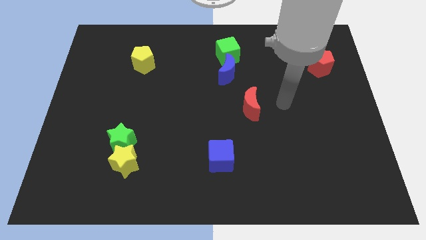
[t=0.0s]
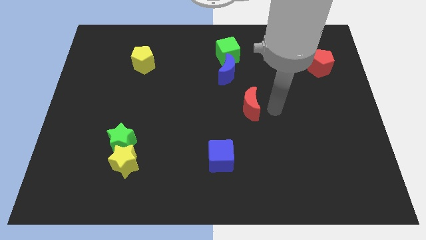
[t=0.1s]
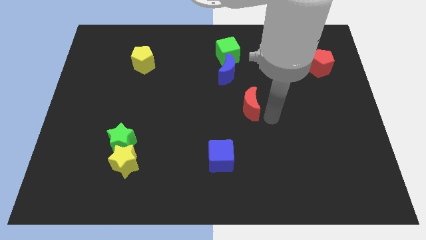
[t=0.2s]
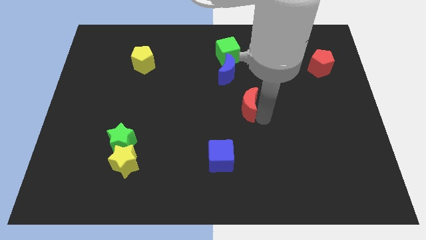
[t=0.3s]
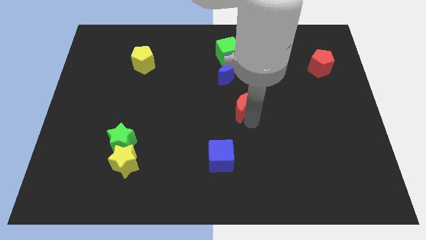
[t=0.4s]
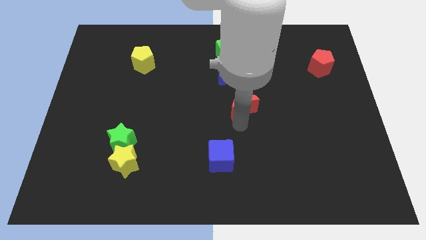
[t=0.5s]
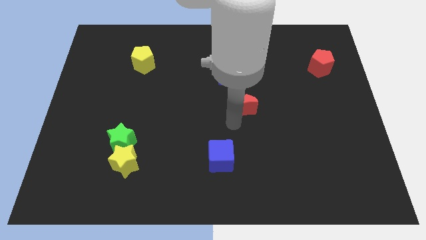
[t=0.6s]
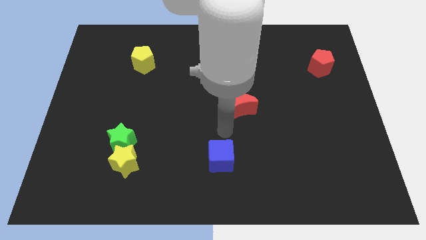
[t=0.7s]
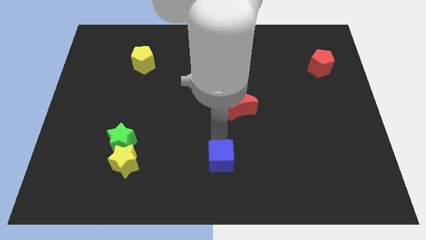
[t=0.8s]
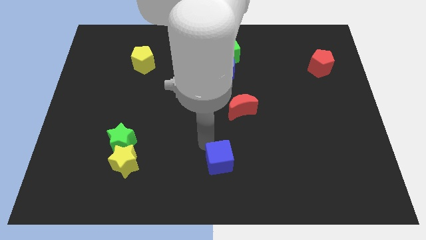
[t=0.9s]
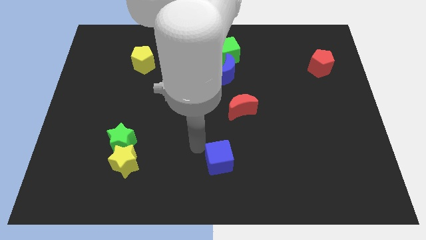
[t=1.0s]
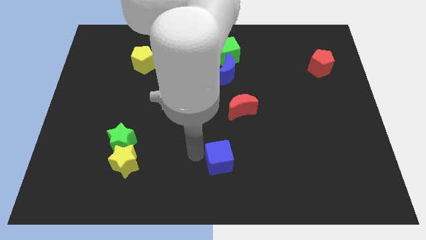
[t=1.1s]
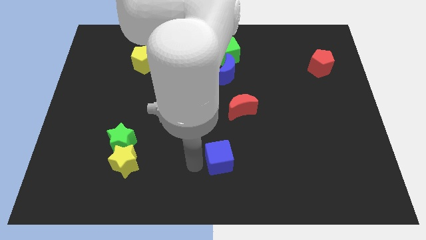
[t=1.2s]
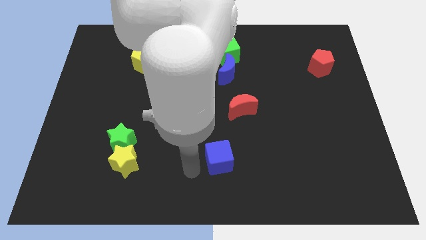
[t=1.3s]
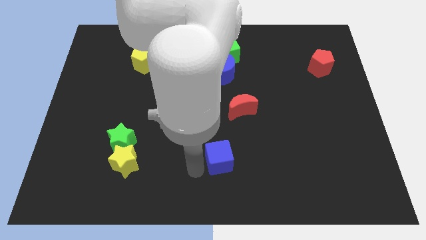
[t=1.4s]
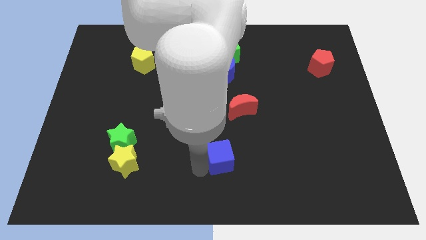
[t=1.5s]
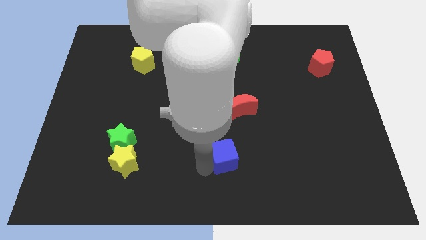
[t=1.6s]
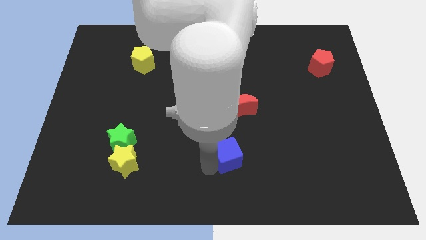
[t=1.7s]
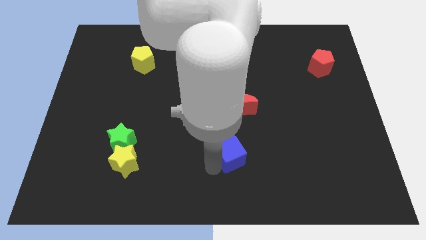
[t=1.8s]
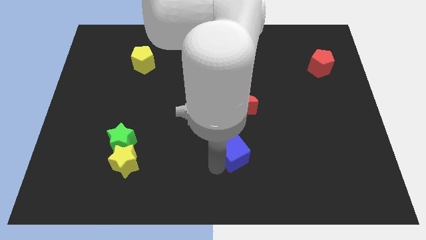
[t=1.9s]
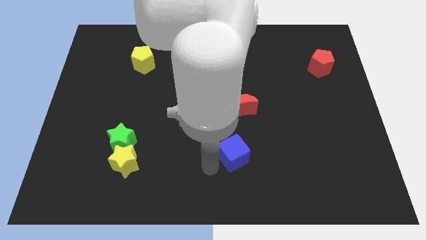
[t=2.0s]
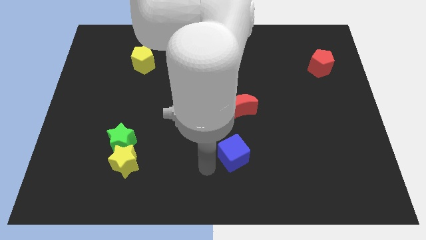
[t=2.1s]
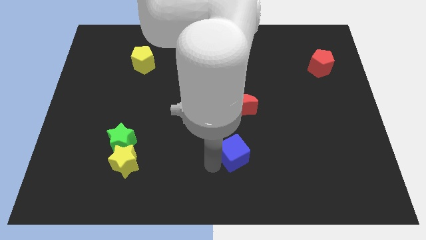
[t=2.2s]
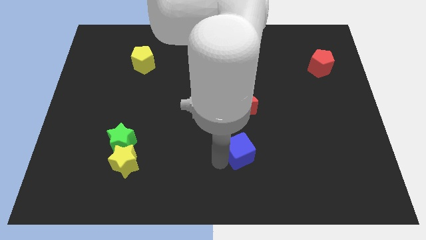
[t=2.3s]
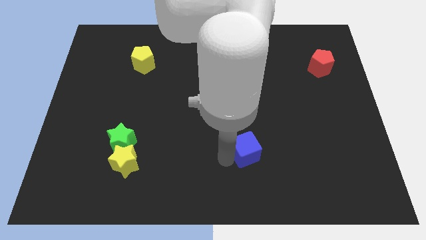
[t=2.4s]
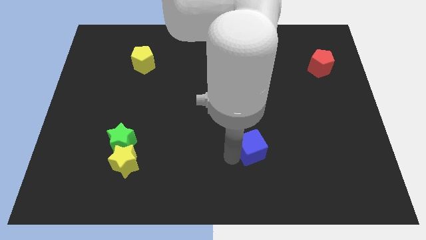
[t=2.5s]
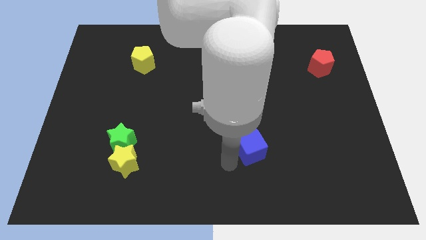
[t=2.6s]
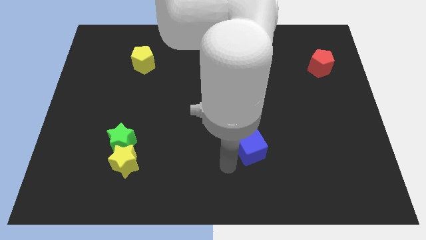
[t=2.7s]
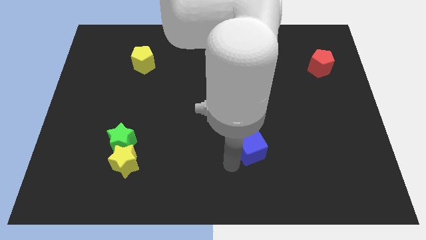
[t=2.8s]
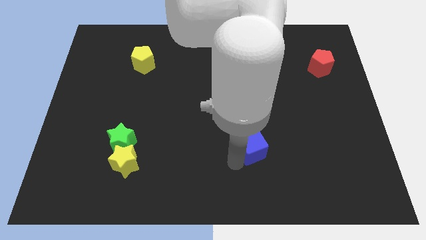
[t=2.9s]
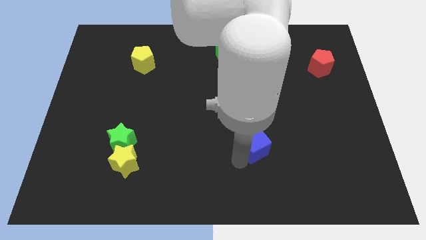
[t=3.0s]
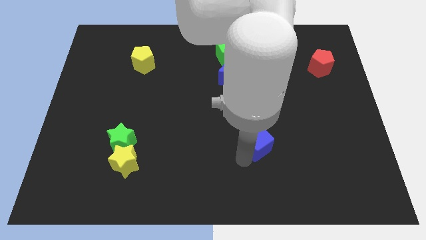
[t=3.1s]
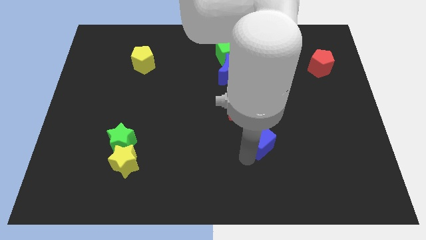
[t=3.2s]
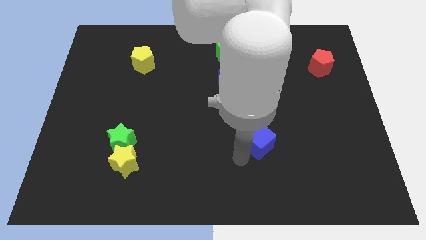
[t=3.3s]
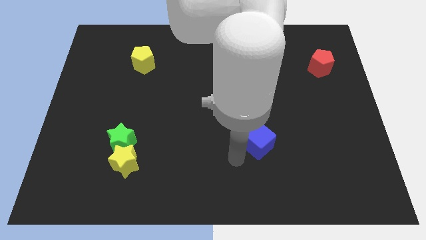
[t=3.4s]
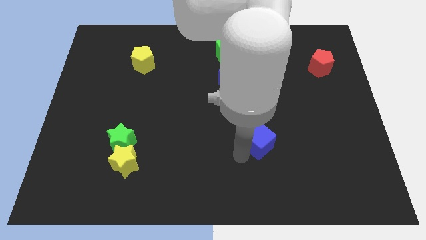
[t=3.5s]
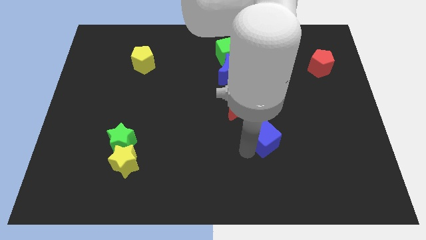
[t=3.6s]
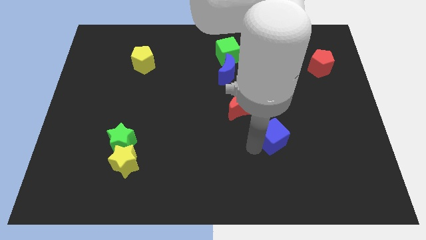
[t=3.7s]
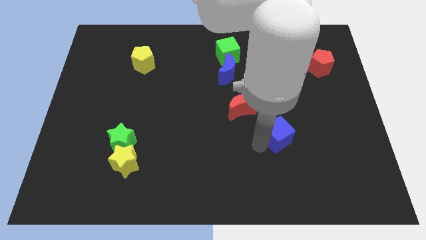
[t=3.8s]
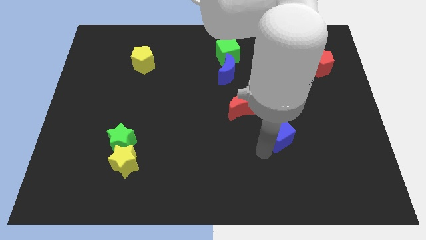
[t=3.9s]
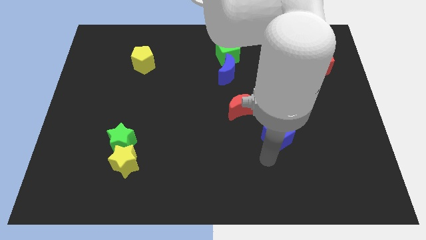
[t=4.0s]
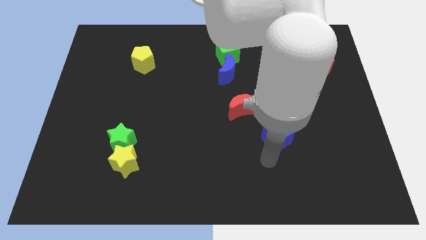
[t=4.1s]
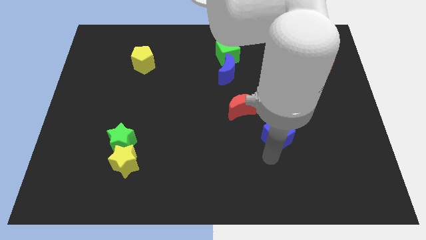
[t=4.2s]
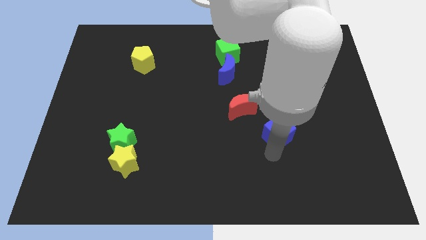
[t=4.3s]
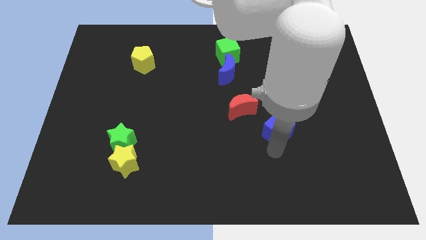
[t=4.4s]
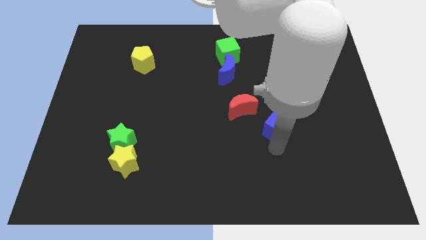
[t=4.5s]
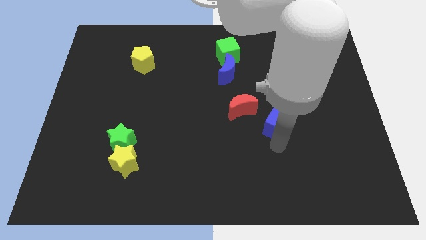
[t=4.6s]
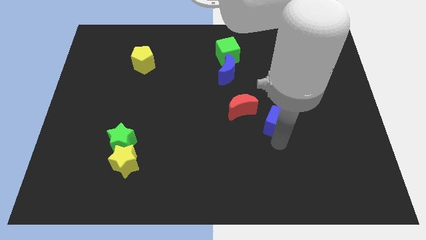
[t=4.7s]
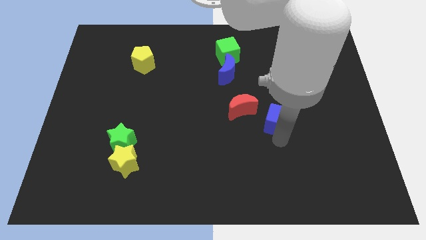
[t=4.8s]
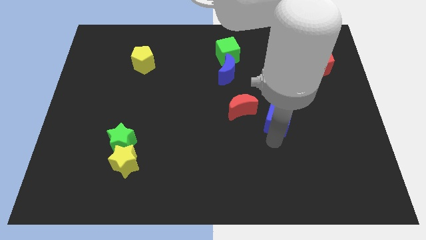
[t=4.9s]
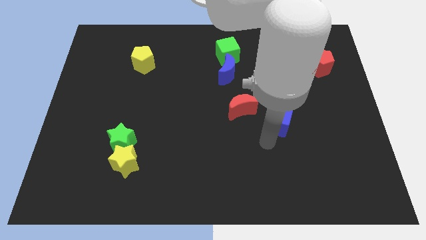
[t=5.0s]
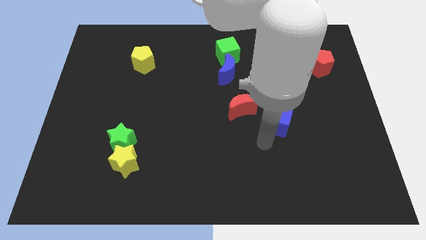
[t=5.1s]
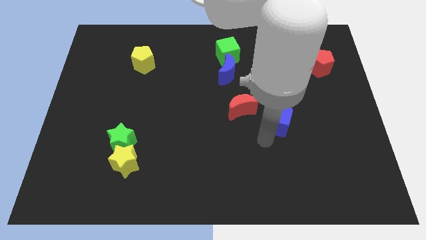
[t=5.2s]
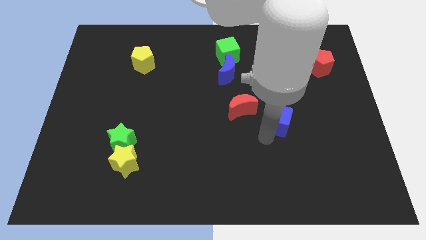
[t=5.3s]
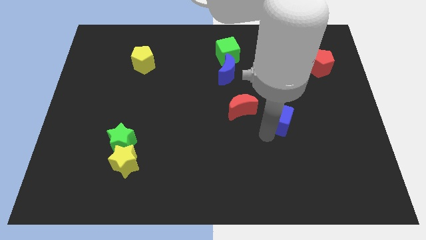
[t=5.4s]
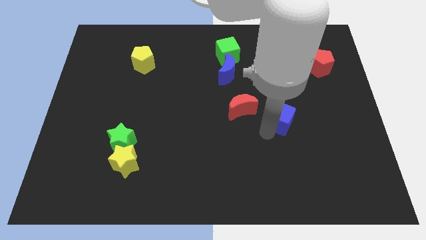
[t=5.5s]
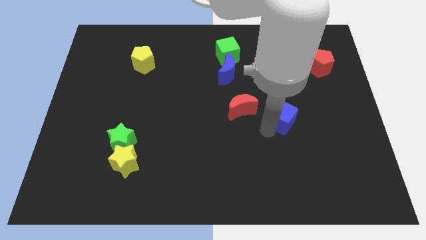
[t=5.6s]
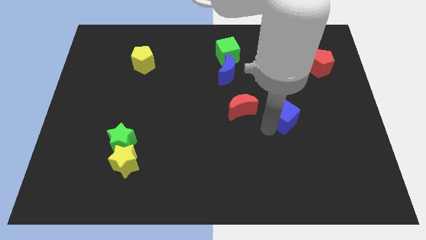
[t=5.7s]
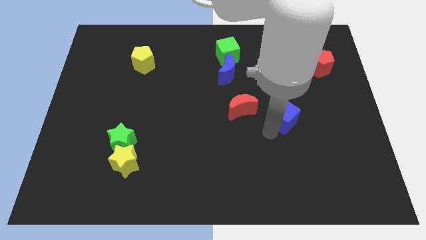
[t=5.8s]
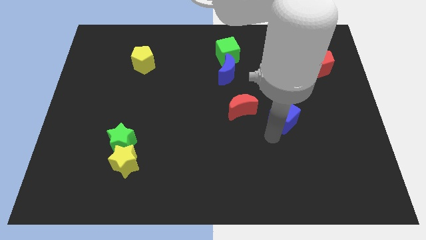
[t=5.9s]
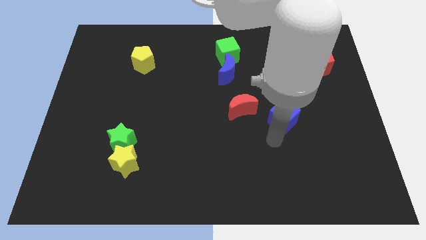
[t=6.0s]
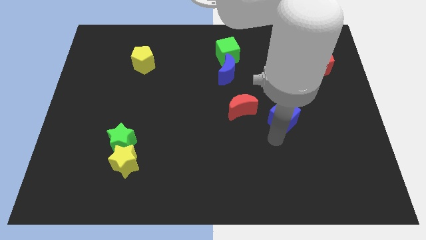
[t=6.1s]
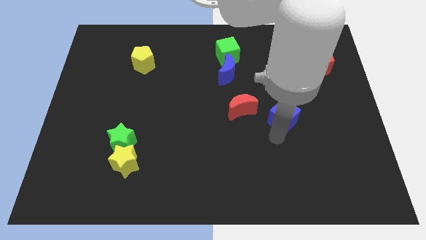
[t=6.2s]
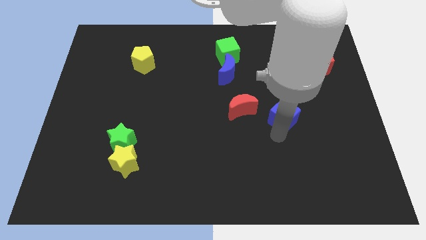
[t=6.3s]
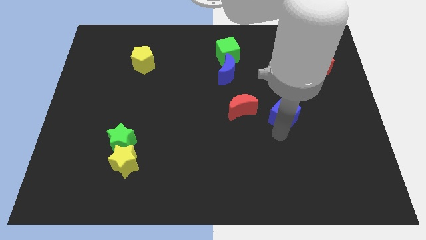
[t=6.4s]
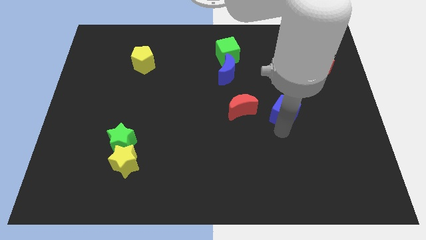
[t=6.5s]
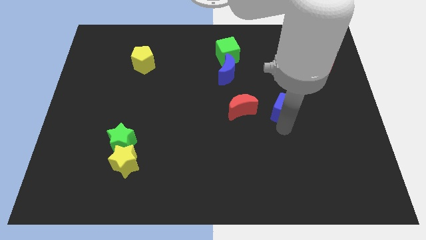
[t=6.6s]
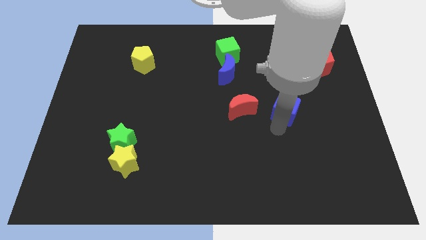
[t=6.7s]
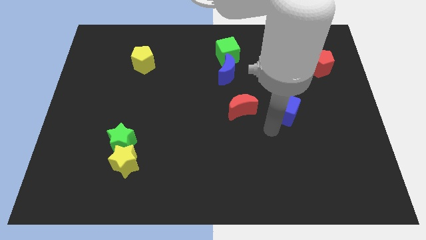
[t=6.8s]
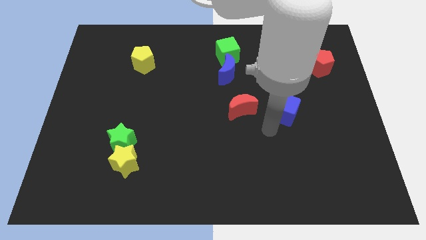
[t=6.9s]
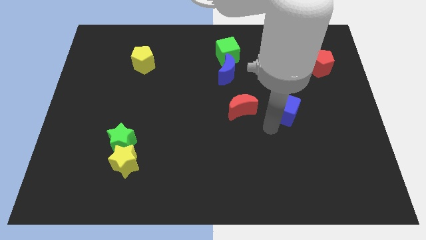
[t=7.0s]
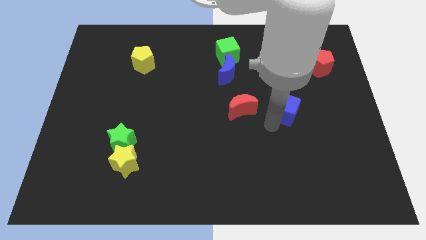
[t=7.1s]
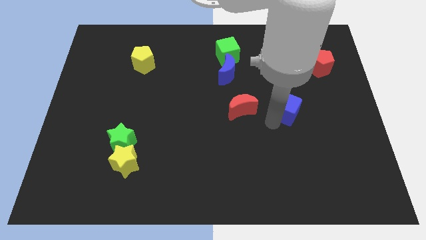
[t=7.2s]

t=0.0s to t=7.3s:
push the blue cube up and then right

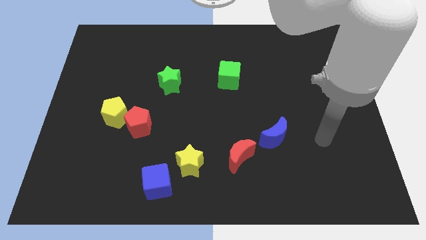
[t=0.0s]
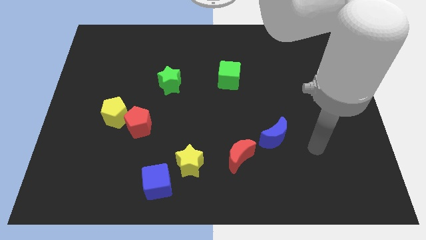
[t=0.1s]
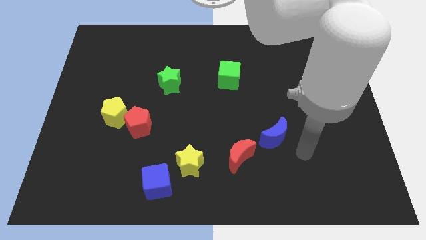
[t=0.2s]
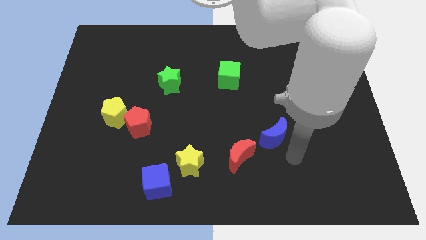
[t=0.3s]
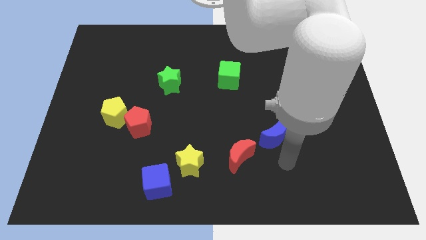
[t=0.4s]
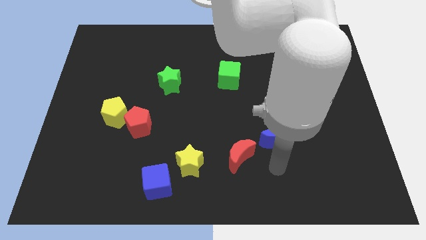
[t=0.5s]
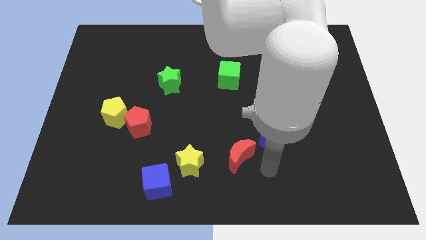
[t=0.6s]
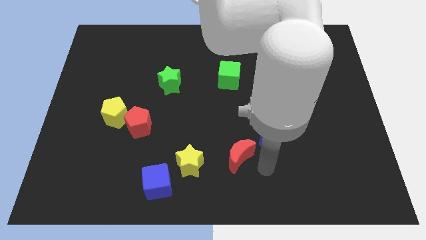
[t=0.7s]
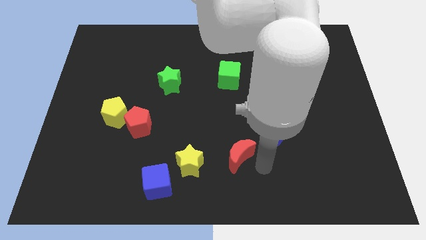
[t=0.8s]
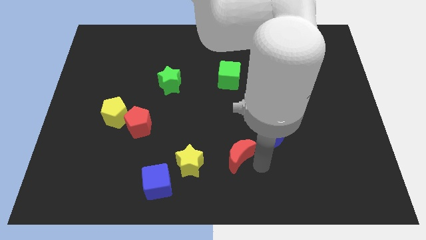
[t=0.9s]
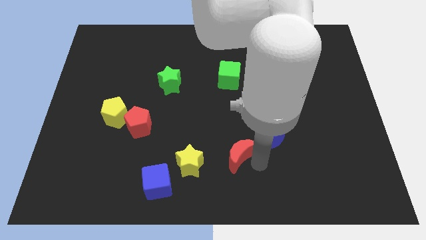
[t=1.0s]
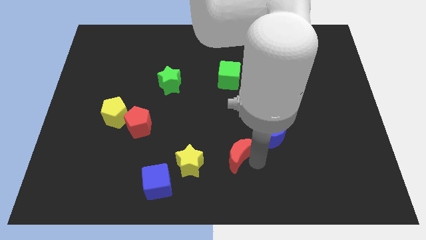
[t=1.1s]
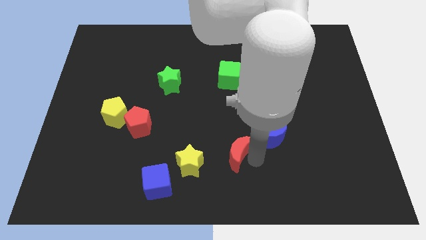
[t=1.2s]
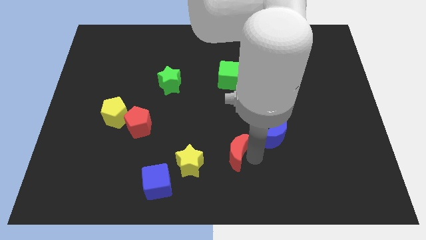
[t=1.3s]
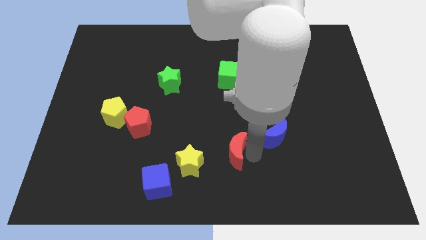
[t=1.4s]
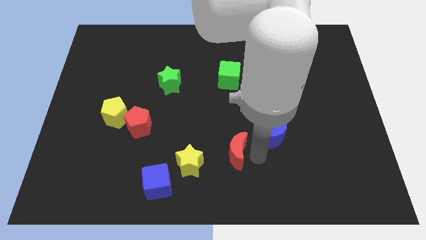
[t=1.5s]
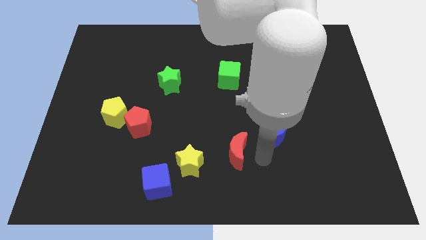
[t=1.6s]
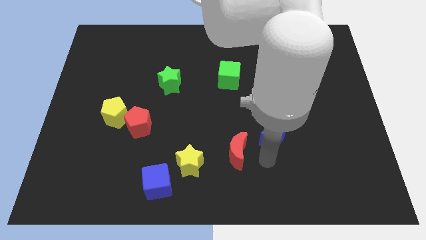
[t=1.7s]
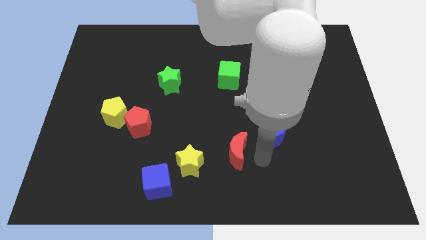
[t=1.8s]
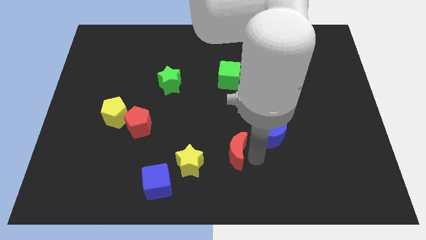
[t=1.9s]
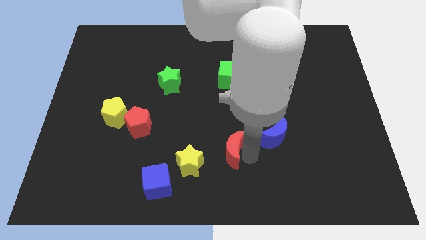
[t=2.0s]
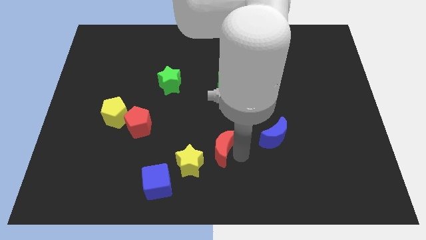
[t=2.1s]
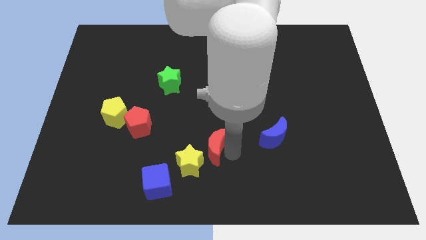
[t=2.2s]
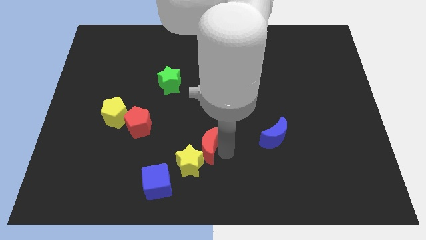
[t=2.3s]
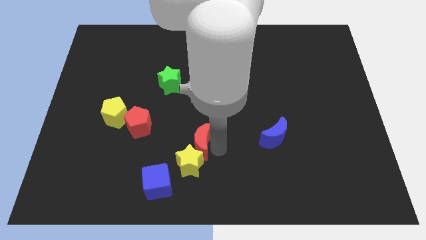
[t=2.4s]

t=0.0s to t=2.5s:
slide the red moon somewhat to the left
